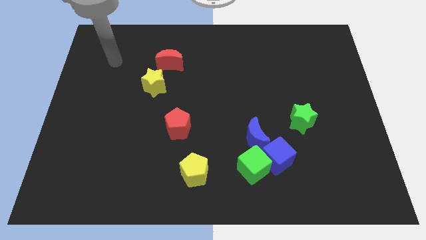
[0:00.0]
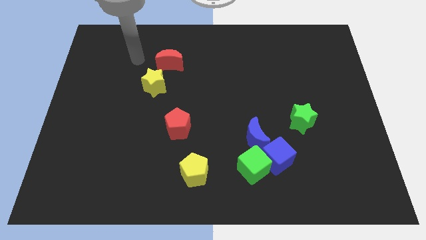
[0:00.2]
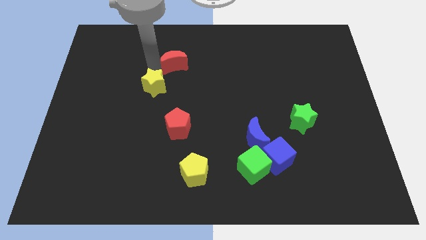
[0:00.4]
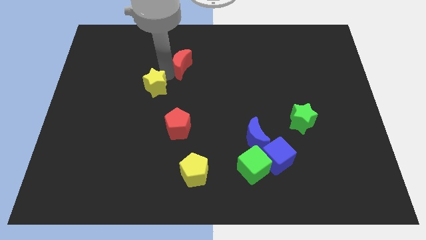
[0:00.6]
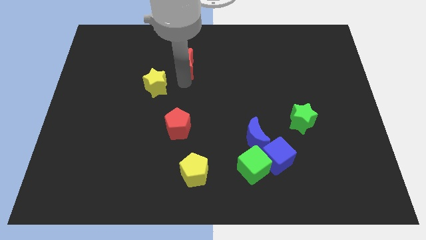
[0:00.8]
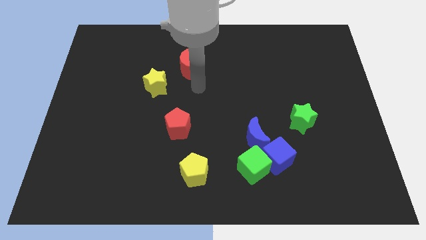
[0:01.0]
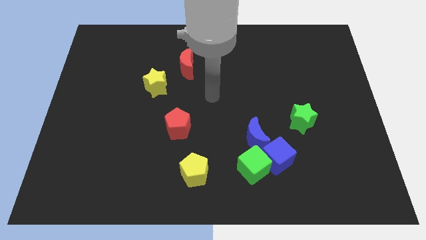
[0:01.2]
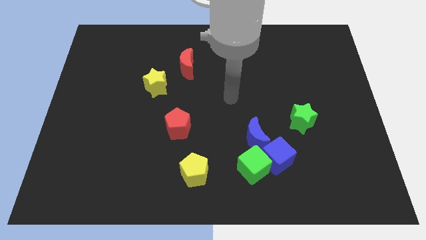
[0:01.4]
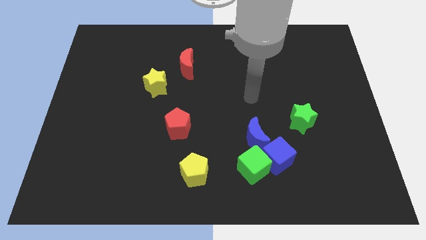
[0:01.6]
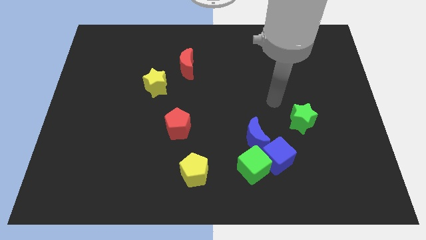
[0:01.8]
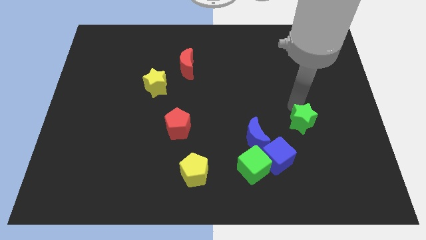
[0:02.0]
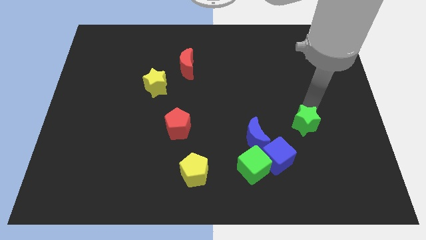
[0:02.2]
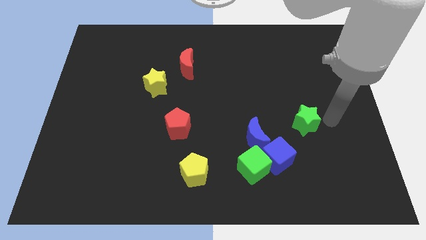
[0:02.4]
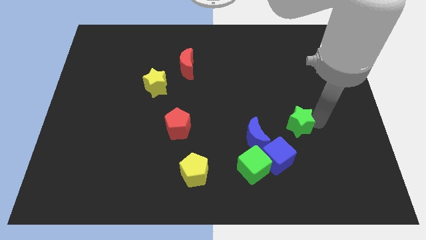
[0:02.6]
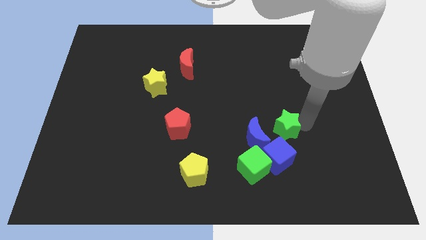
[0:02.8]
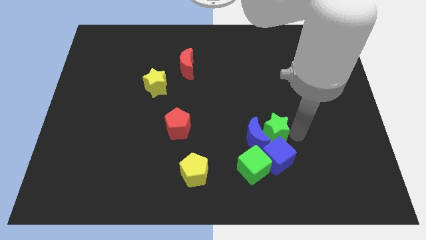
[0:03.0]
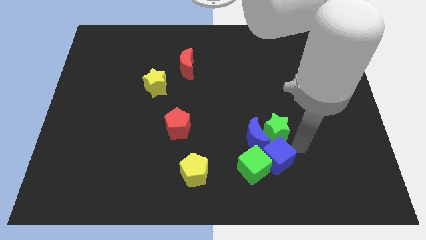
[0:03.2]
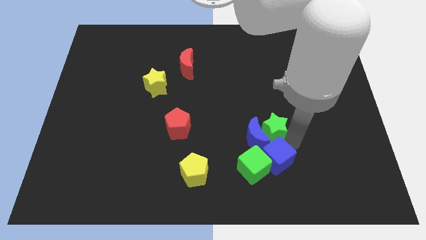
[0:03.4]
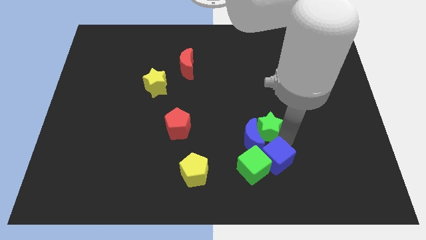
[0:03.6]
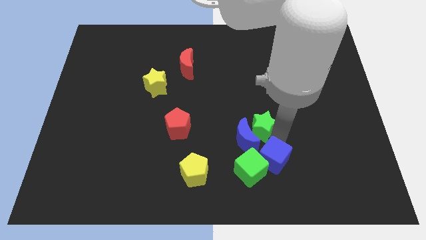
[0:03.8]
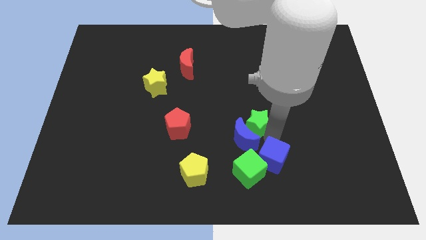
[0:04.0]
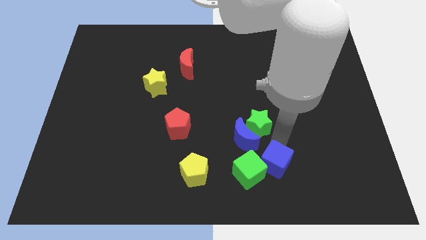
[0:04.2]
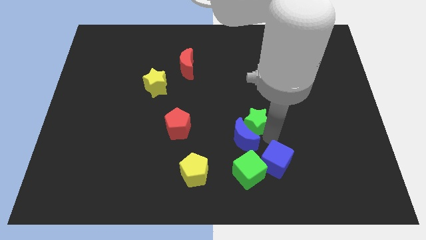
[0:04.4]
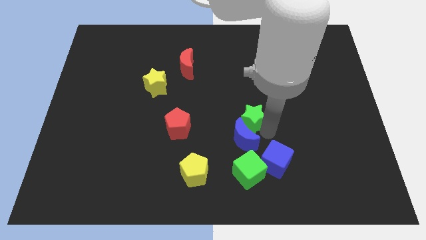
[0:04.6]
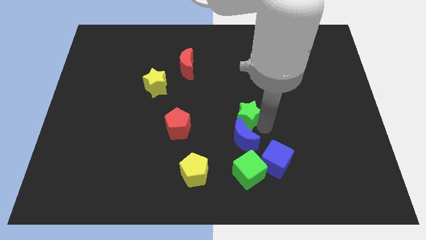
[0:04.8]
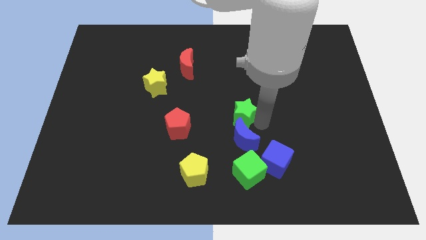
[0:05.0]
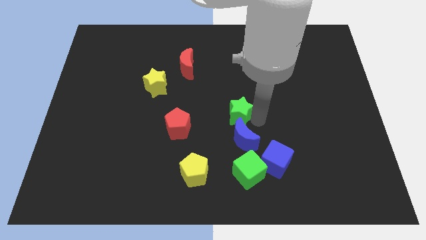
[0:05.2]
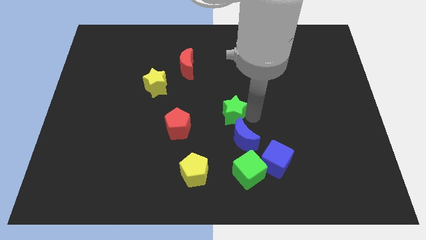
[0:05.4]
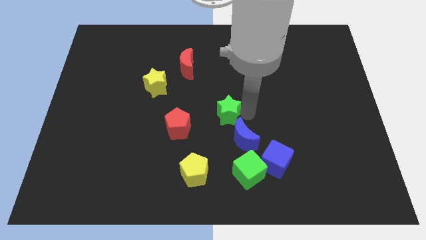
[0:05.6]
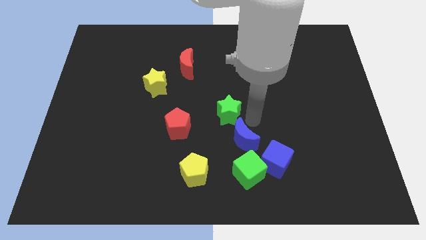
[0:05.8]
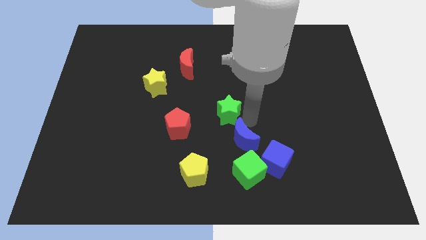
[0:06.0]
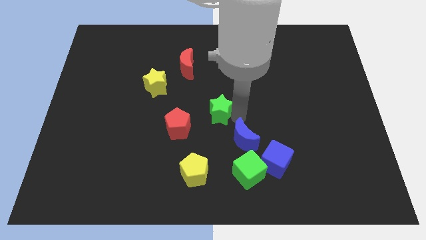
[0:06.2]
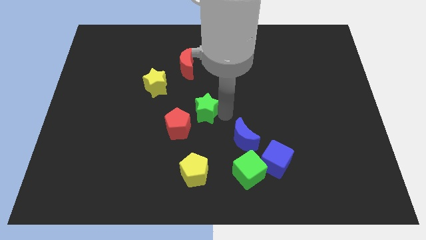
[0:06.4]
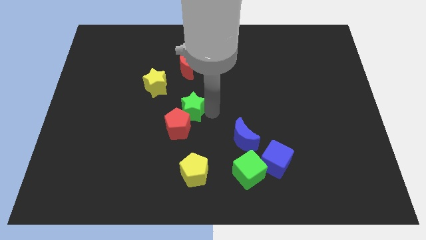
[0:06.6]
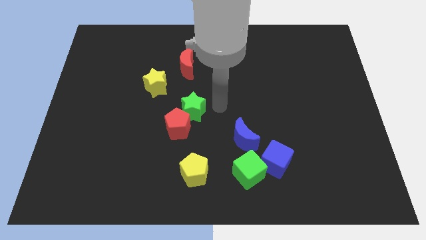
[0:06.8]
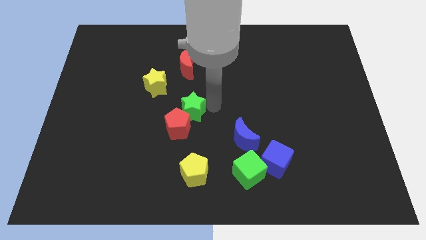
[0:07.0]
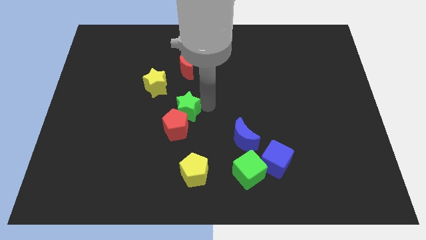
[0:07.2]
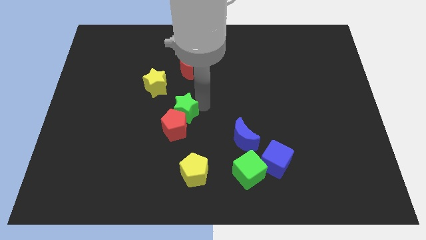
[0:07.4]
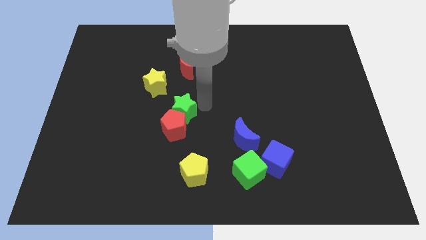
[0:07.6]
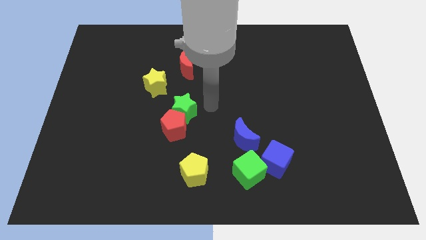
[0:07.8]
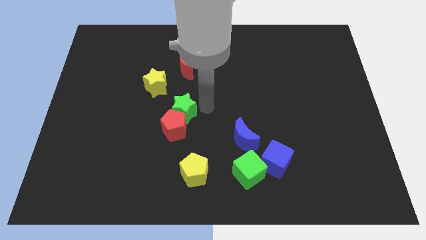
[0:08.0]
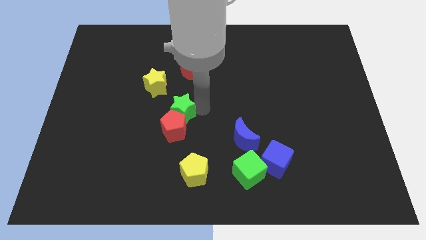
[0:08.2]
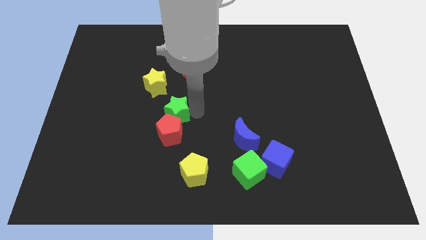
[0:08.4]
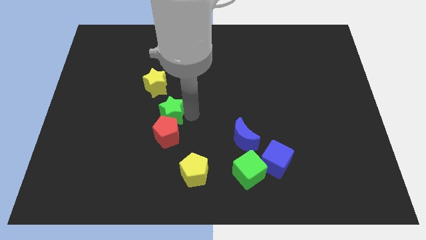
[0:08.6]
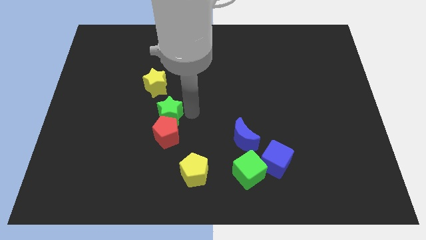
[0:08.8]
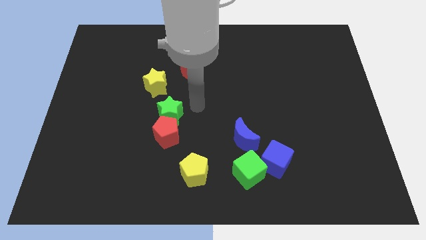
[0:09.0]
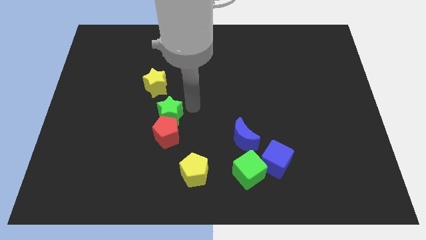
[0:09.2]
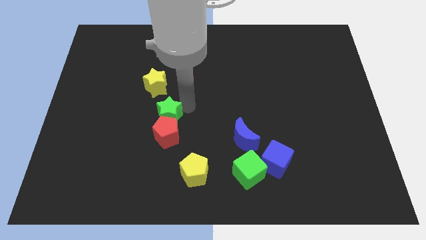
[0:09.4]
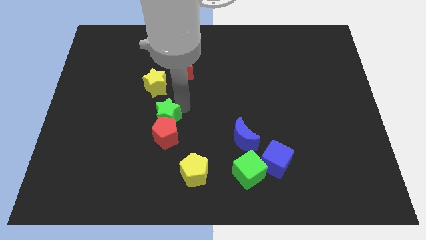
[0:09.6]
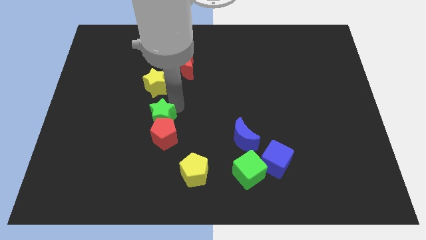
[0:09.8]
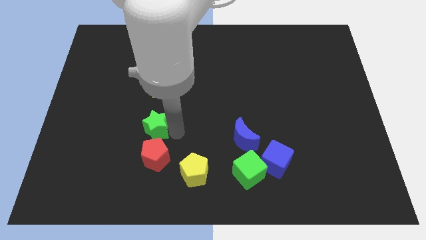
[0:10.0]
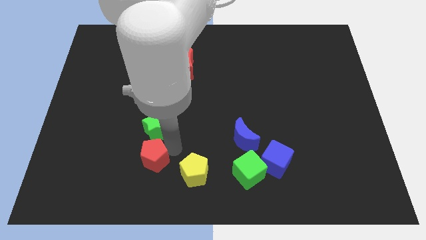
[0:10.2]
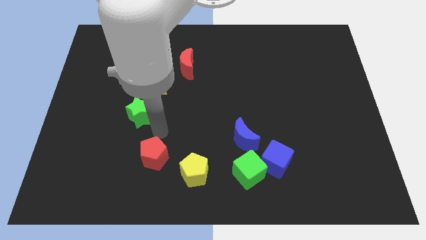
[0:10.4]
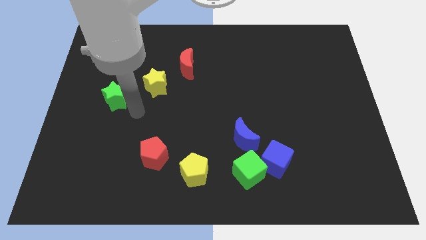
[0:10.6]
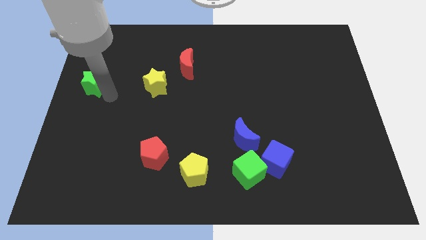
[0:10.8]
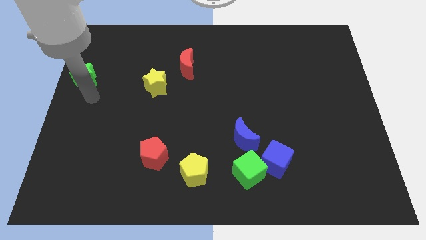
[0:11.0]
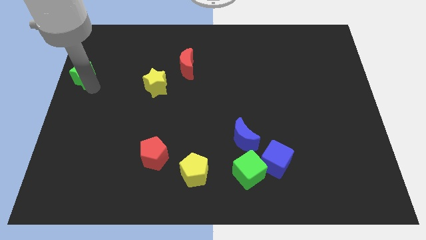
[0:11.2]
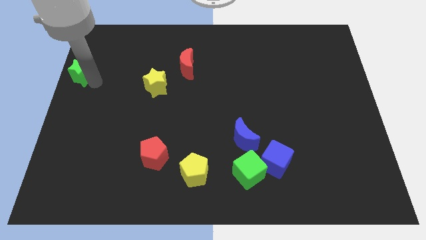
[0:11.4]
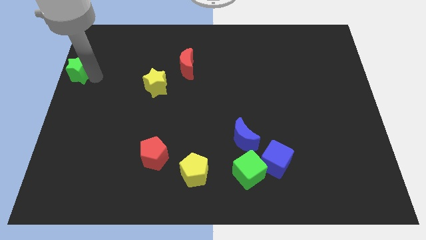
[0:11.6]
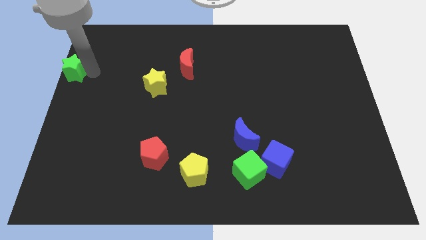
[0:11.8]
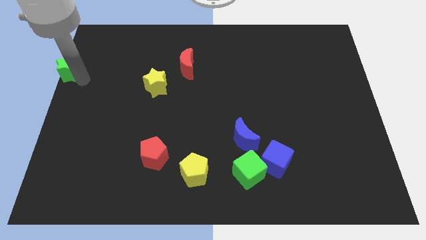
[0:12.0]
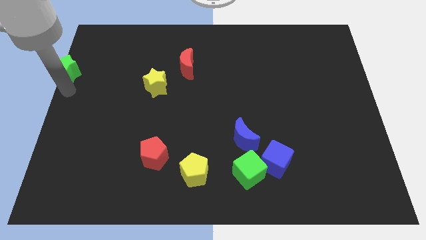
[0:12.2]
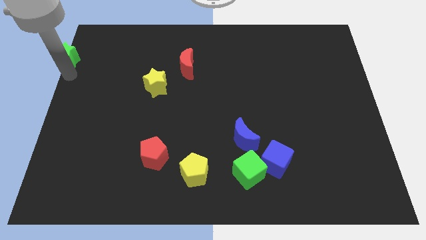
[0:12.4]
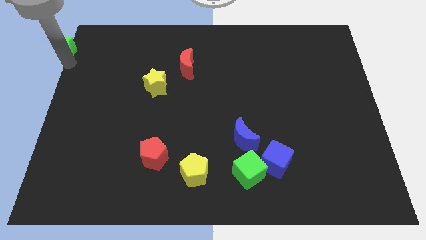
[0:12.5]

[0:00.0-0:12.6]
move the green star to the top left of the board
